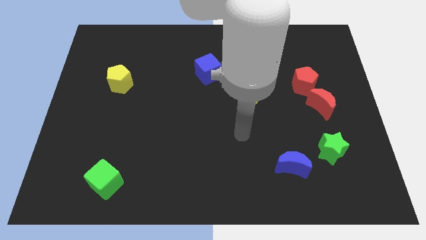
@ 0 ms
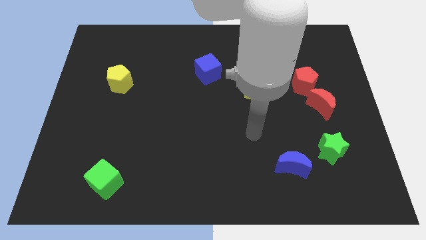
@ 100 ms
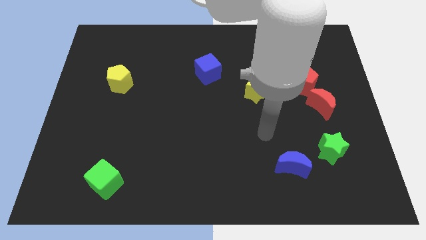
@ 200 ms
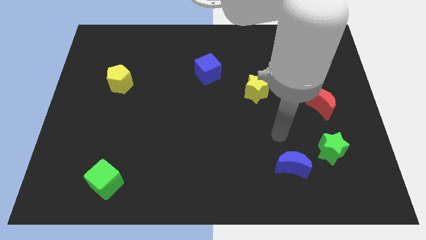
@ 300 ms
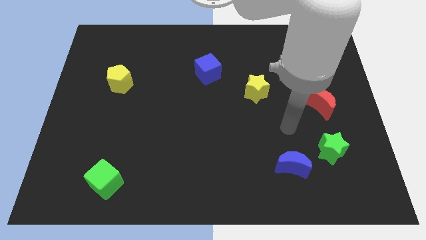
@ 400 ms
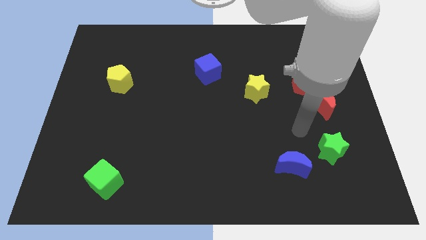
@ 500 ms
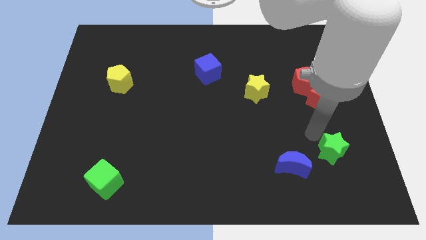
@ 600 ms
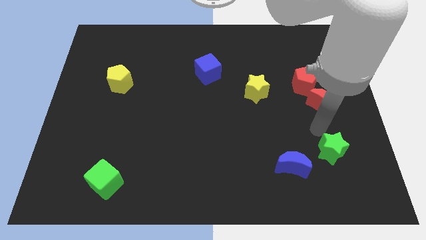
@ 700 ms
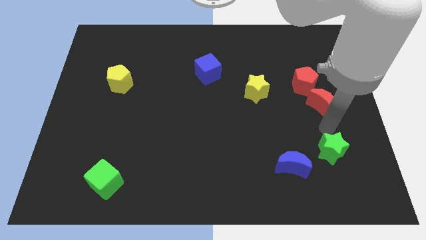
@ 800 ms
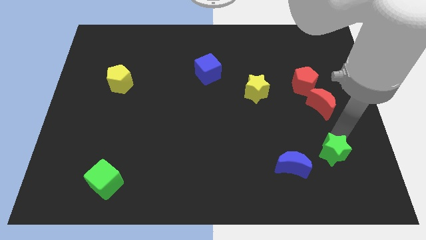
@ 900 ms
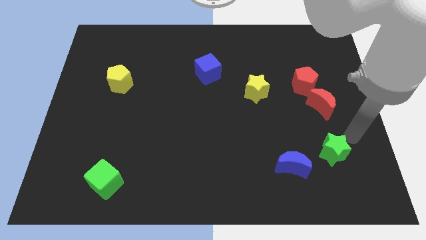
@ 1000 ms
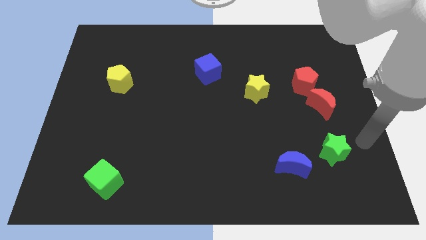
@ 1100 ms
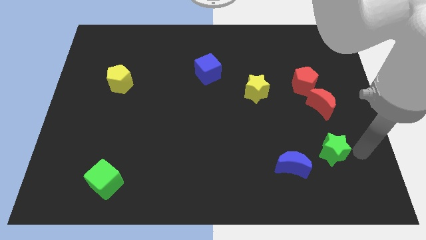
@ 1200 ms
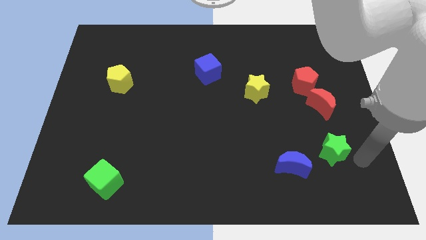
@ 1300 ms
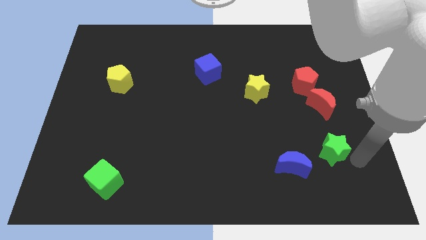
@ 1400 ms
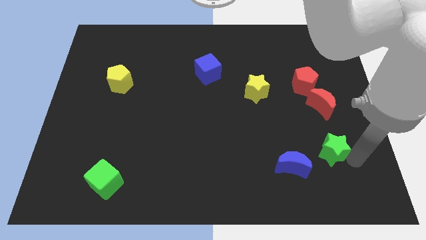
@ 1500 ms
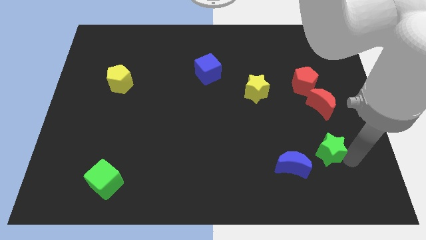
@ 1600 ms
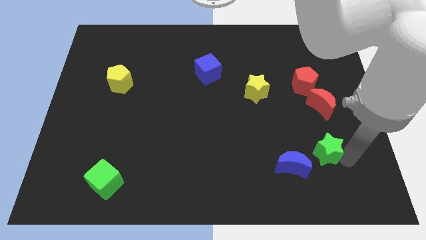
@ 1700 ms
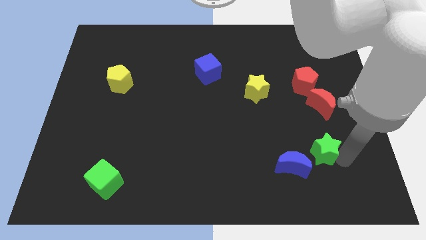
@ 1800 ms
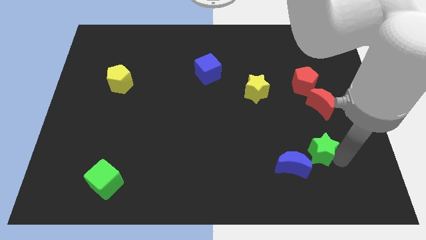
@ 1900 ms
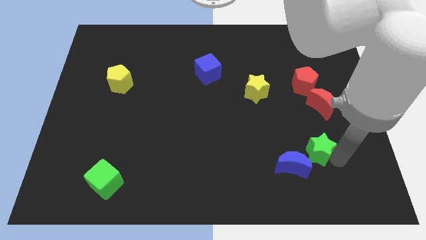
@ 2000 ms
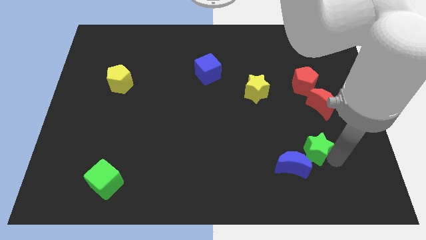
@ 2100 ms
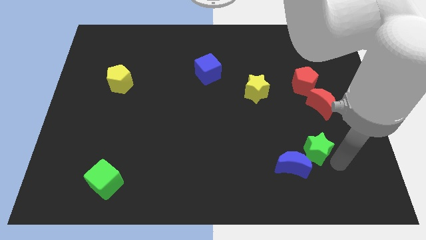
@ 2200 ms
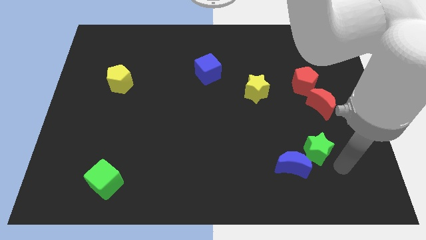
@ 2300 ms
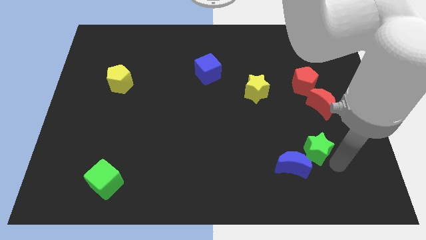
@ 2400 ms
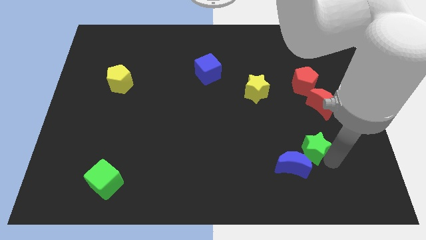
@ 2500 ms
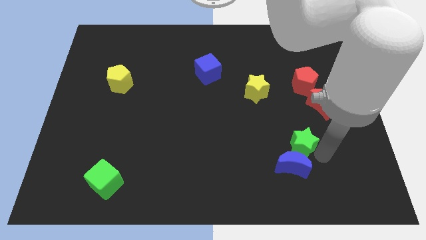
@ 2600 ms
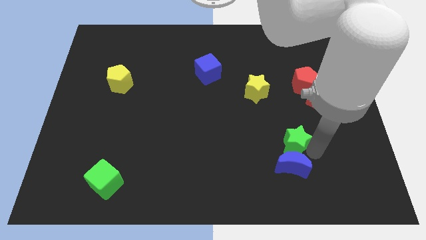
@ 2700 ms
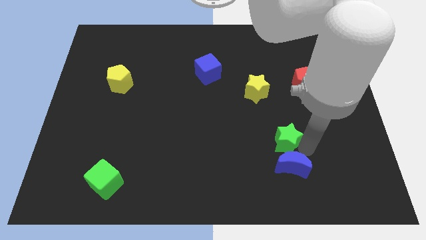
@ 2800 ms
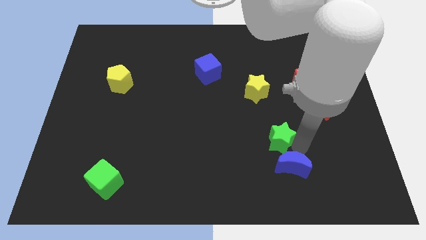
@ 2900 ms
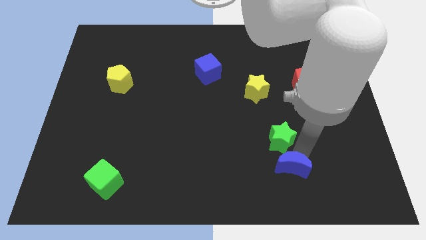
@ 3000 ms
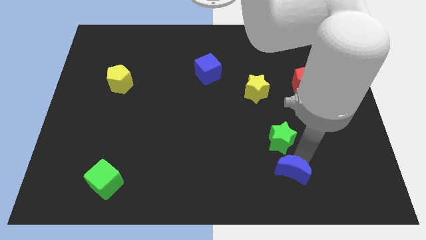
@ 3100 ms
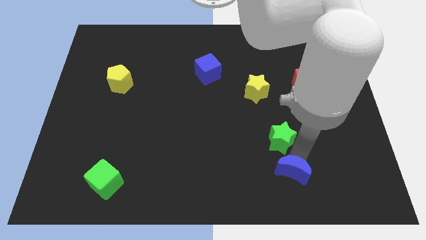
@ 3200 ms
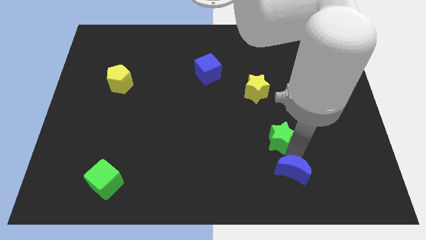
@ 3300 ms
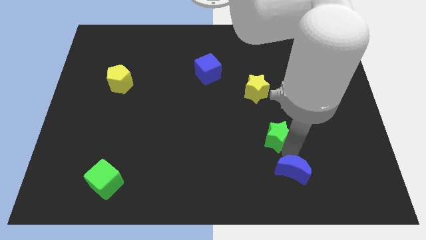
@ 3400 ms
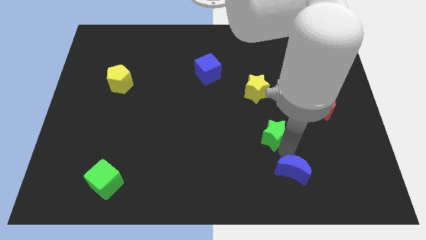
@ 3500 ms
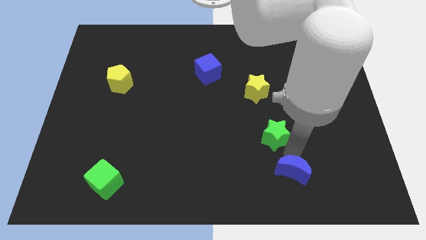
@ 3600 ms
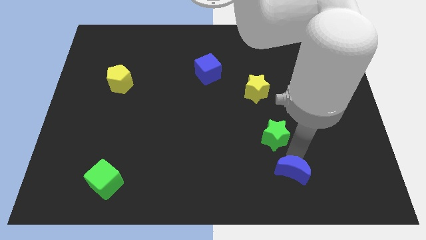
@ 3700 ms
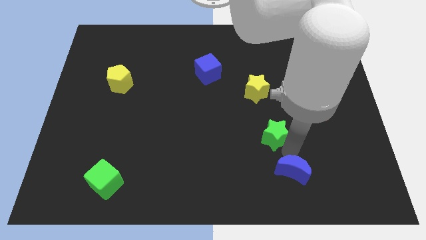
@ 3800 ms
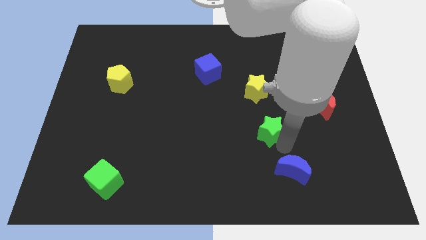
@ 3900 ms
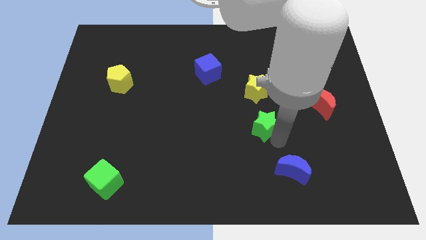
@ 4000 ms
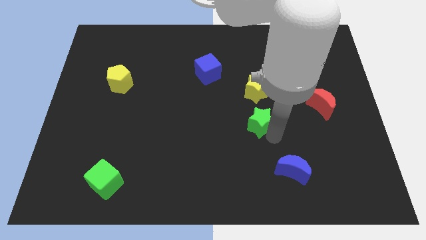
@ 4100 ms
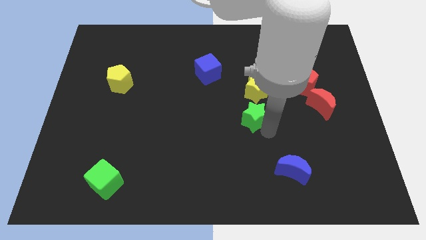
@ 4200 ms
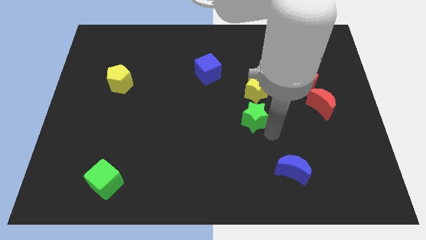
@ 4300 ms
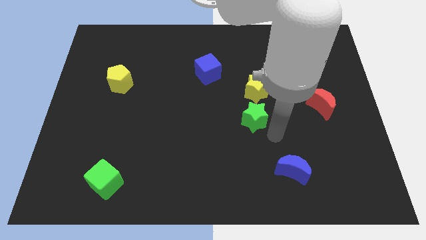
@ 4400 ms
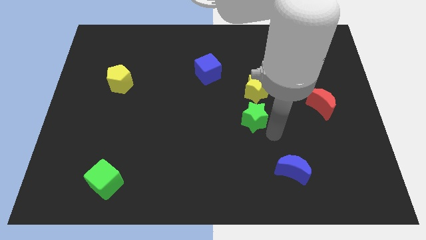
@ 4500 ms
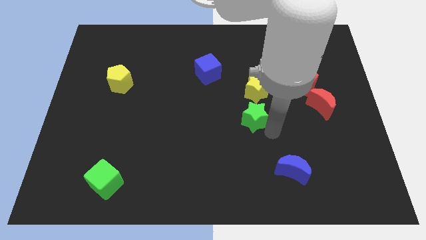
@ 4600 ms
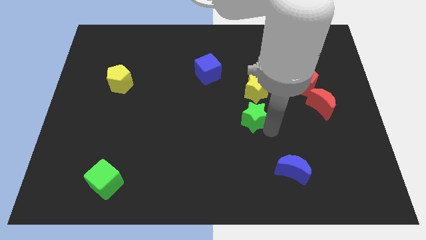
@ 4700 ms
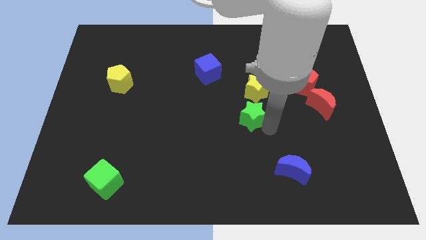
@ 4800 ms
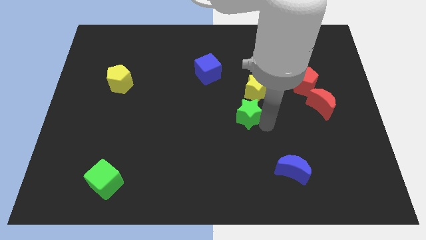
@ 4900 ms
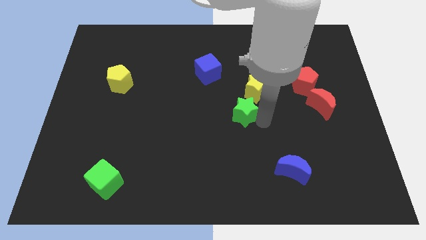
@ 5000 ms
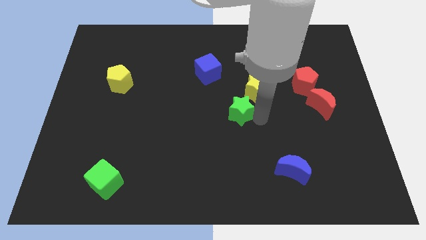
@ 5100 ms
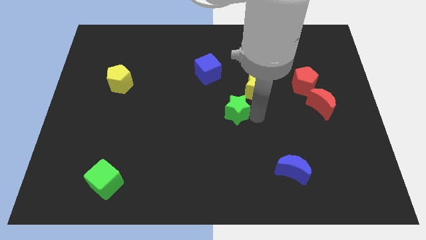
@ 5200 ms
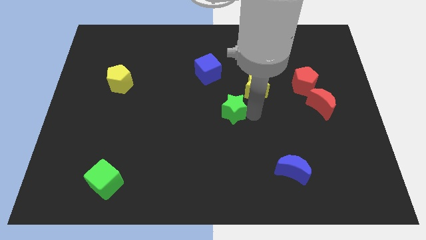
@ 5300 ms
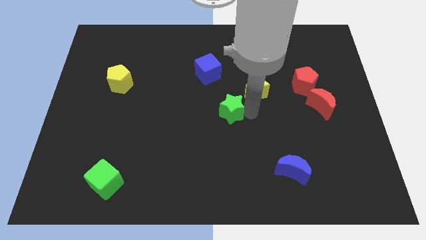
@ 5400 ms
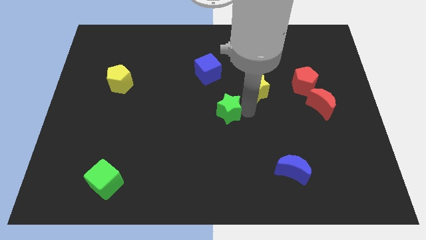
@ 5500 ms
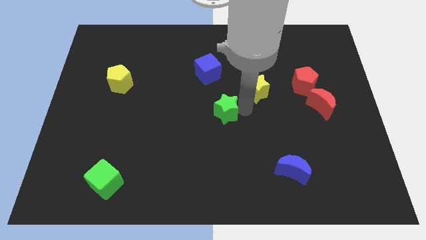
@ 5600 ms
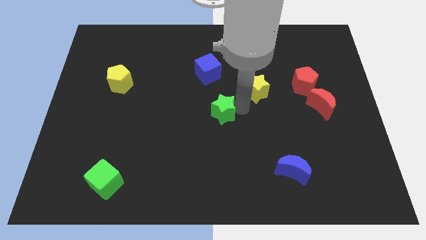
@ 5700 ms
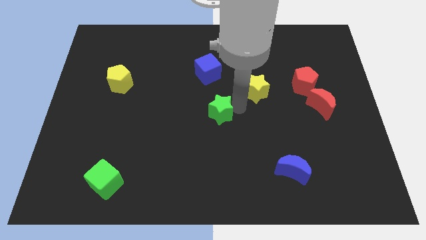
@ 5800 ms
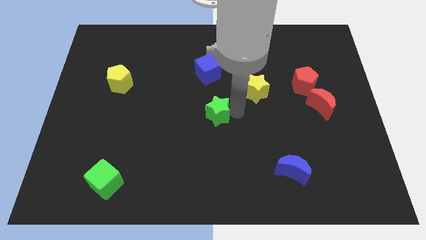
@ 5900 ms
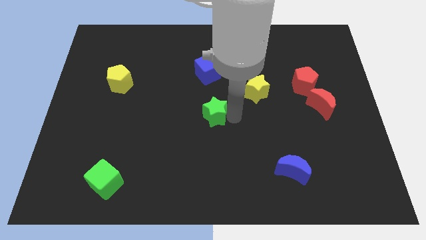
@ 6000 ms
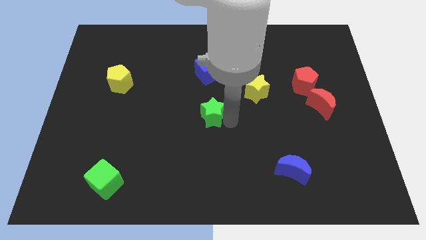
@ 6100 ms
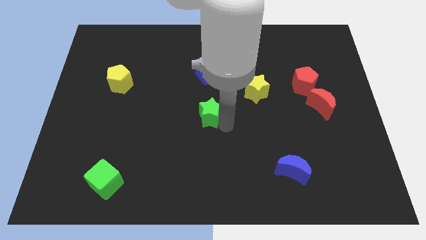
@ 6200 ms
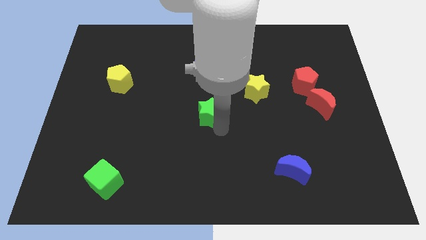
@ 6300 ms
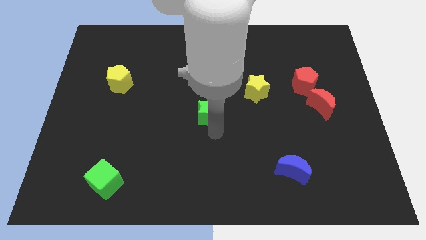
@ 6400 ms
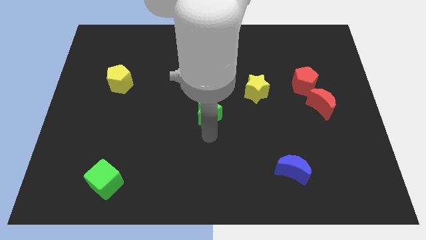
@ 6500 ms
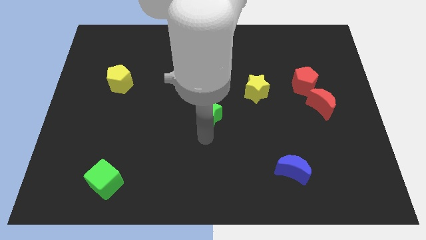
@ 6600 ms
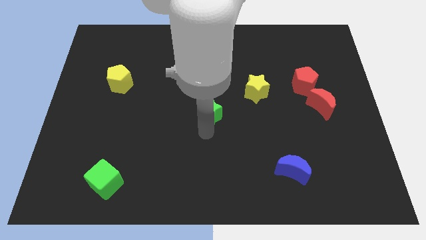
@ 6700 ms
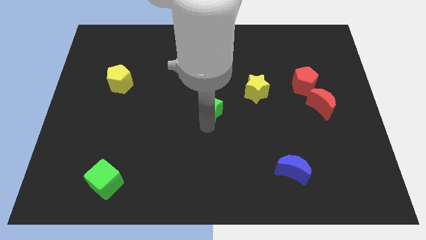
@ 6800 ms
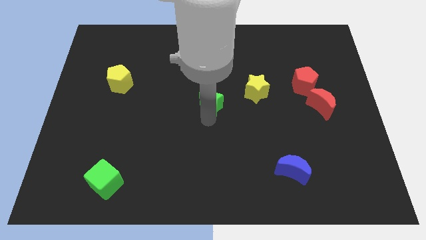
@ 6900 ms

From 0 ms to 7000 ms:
slide the green star to the left of the yellow star
